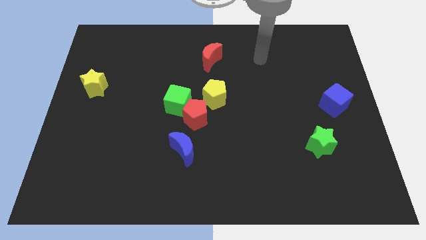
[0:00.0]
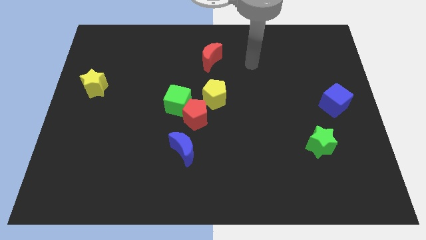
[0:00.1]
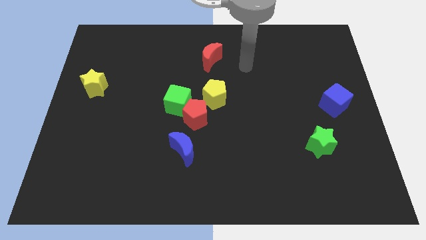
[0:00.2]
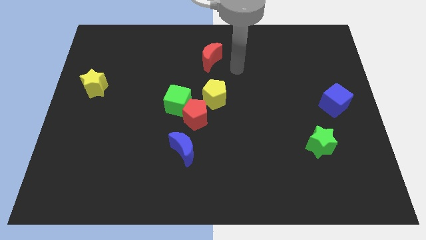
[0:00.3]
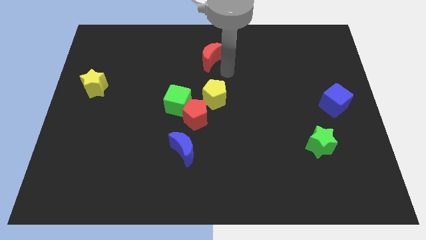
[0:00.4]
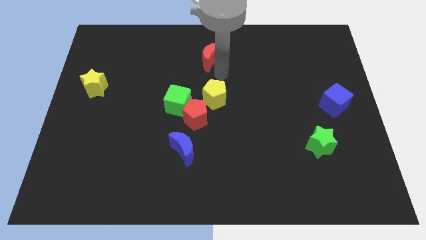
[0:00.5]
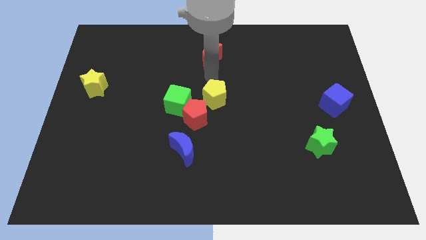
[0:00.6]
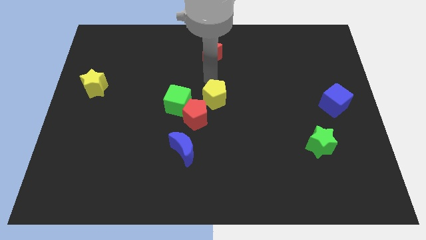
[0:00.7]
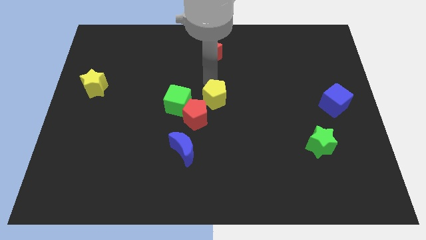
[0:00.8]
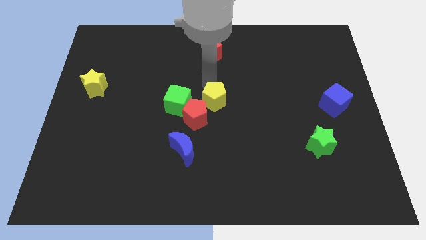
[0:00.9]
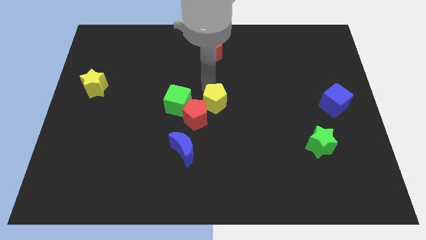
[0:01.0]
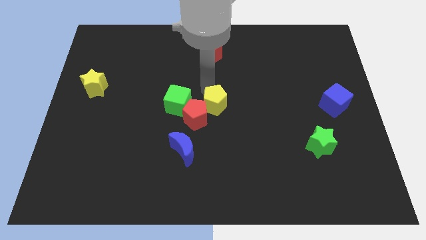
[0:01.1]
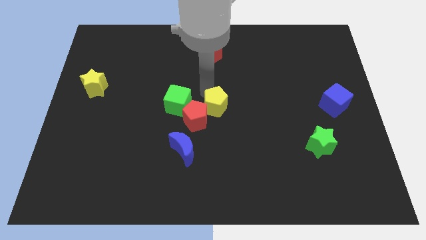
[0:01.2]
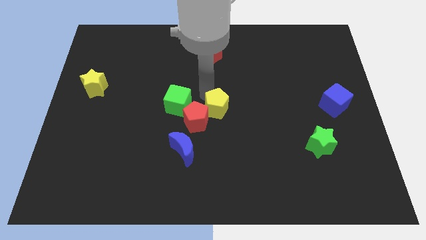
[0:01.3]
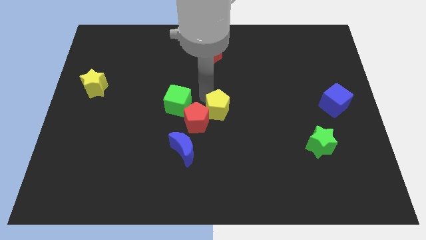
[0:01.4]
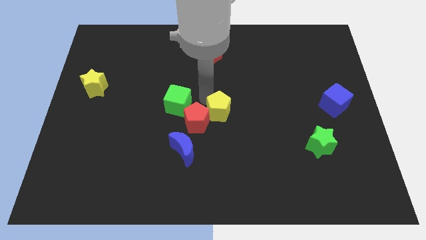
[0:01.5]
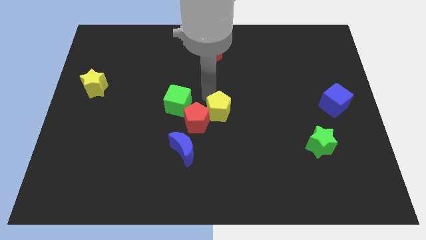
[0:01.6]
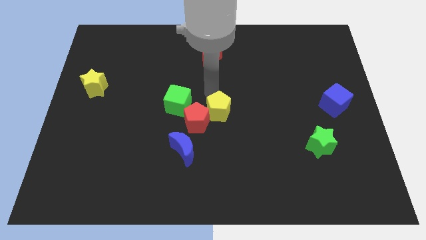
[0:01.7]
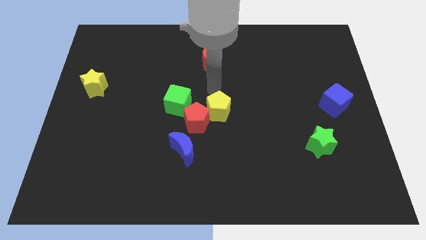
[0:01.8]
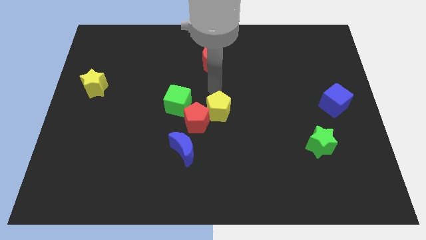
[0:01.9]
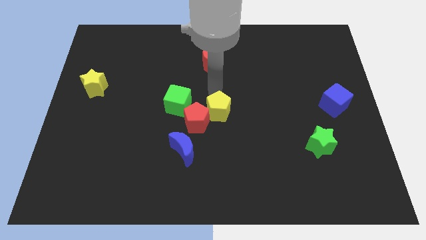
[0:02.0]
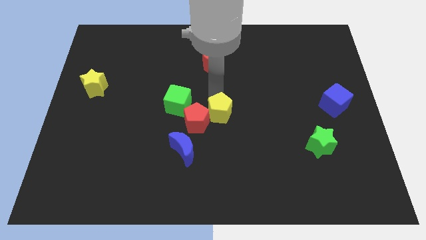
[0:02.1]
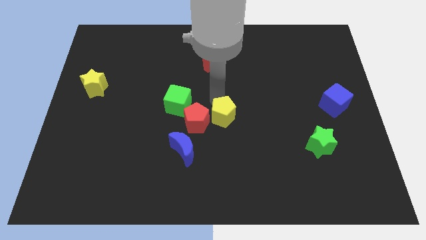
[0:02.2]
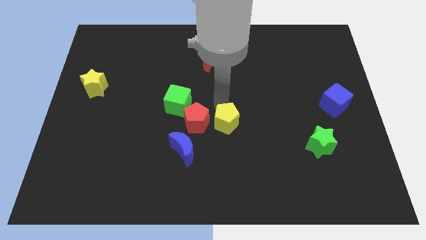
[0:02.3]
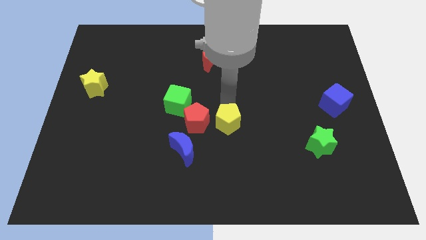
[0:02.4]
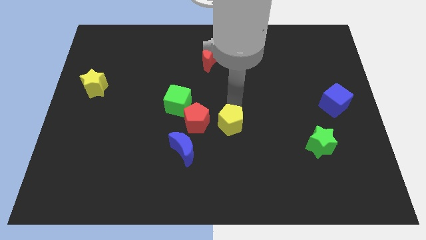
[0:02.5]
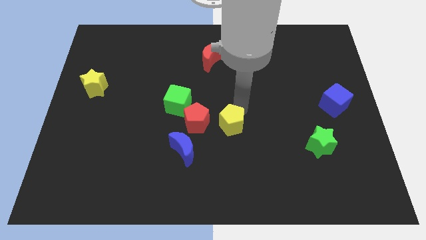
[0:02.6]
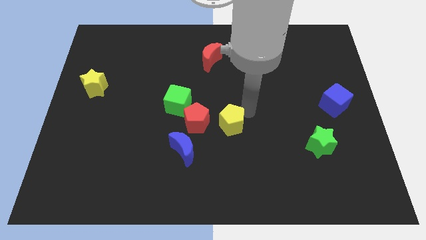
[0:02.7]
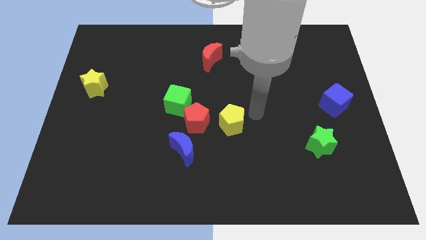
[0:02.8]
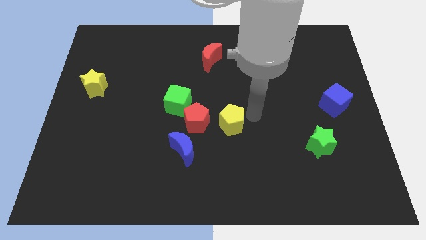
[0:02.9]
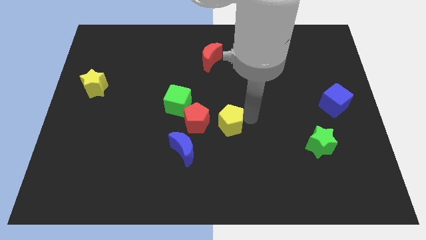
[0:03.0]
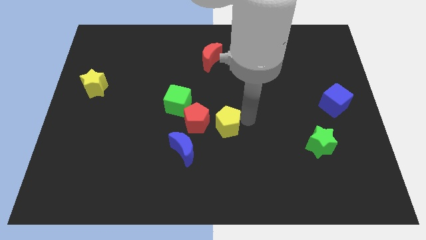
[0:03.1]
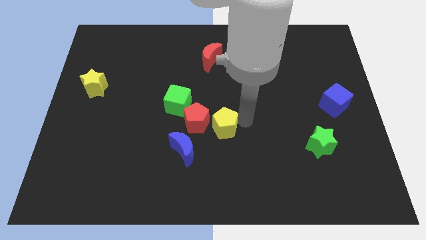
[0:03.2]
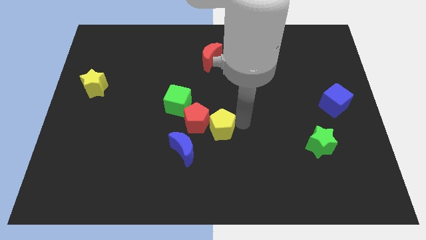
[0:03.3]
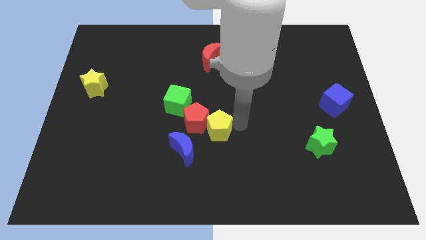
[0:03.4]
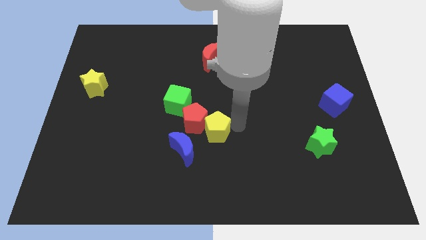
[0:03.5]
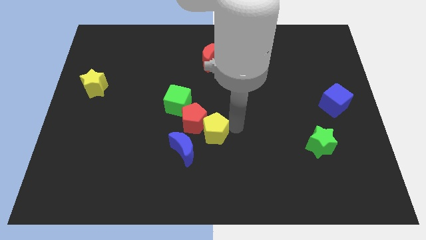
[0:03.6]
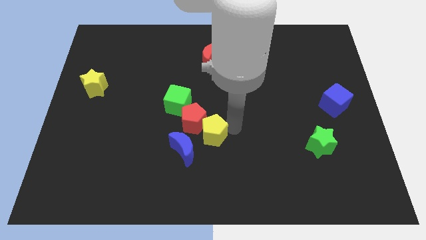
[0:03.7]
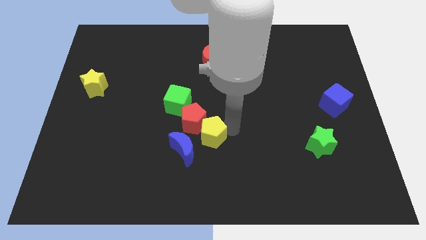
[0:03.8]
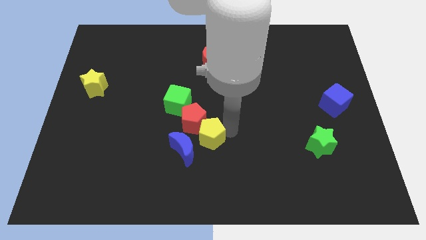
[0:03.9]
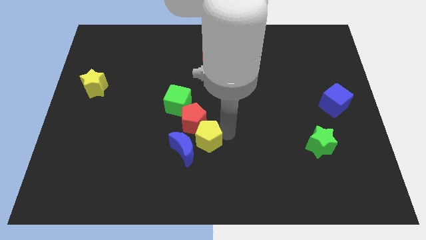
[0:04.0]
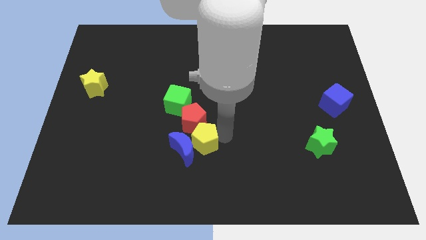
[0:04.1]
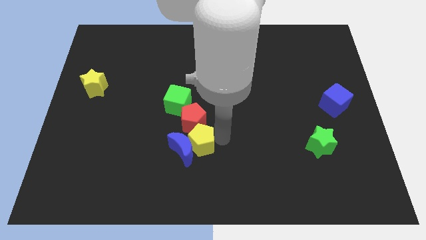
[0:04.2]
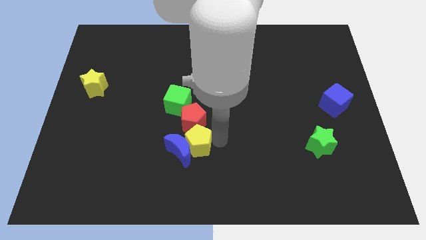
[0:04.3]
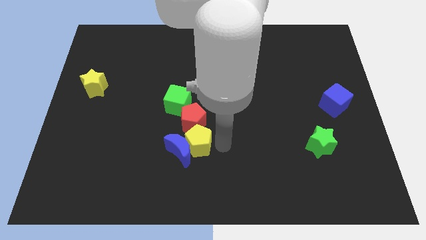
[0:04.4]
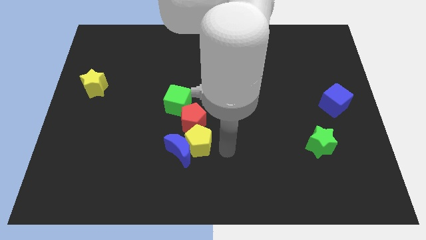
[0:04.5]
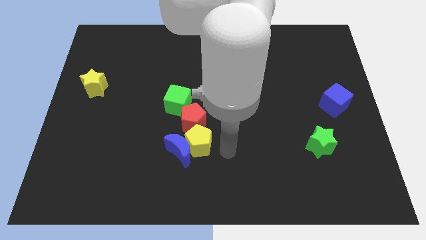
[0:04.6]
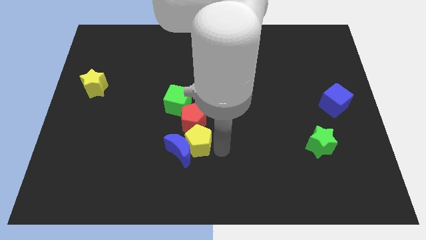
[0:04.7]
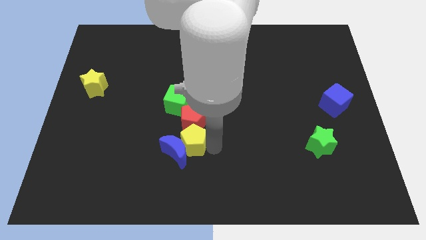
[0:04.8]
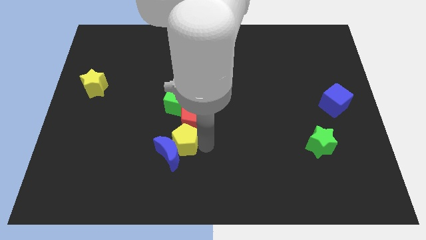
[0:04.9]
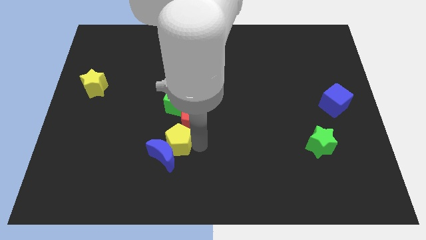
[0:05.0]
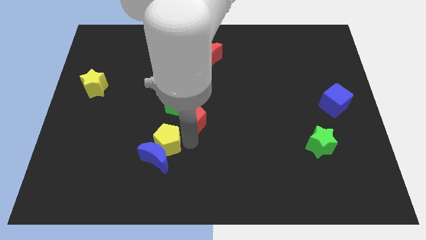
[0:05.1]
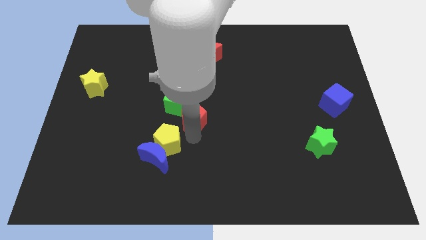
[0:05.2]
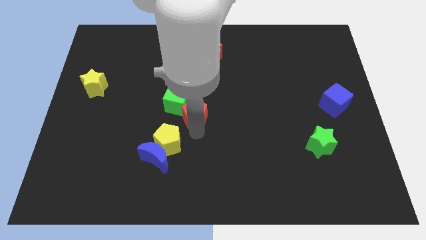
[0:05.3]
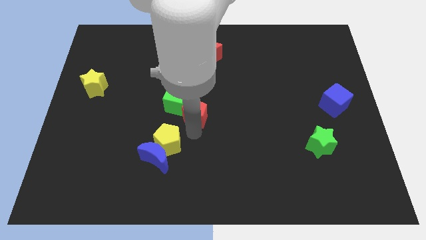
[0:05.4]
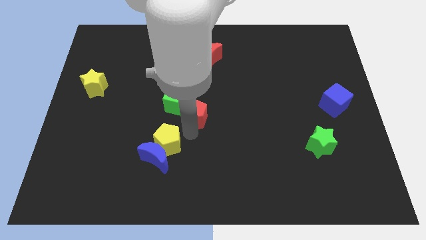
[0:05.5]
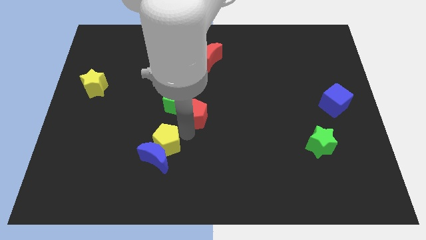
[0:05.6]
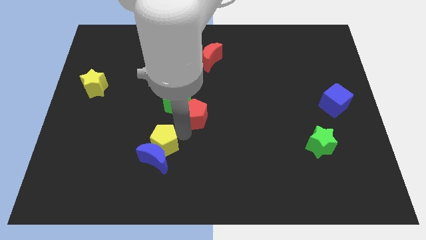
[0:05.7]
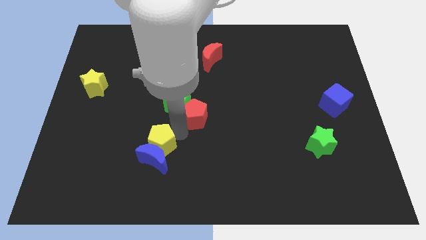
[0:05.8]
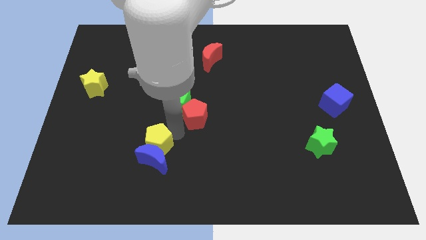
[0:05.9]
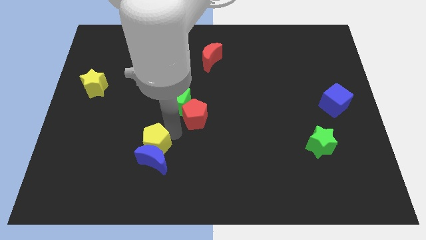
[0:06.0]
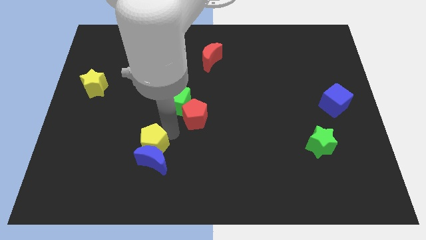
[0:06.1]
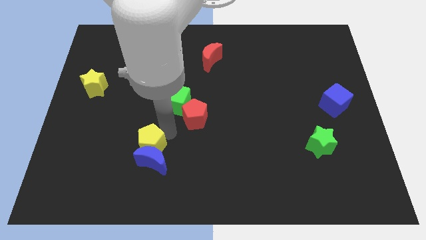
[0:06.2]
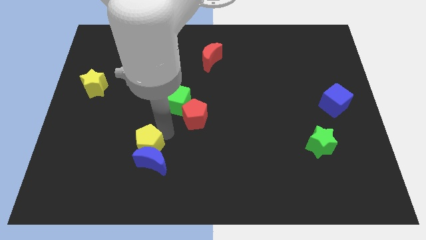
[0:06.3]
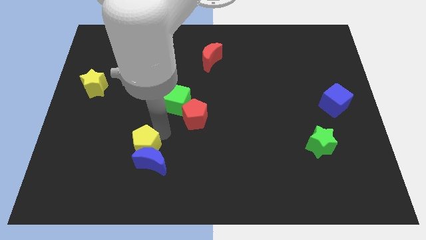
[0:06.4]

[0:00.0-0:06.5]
push the yellow pentagon down and then to the left

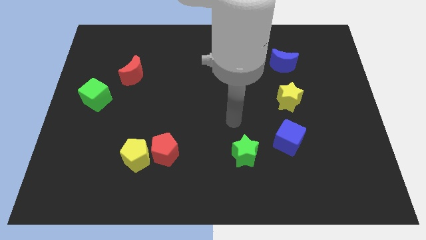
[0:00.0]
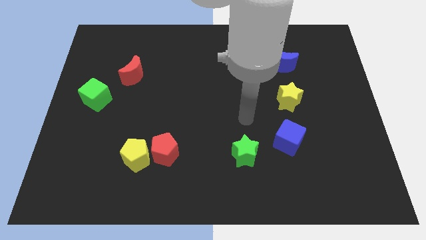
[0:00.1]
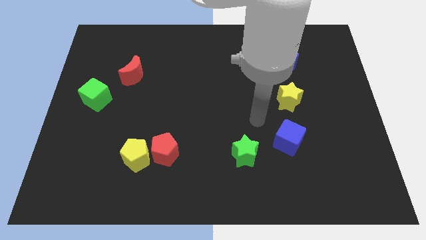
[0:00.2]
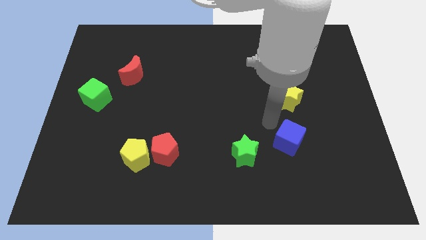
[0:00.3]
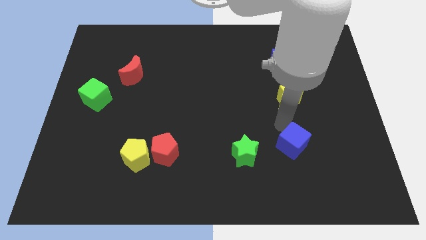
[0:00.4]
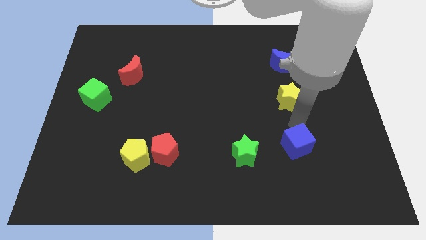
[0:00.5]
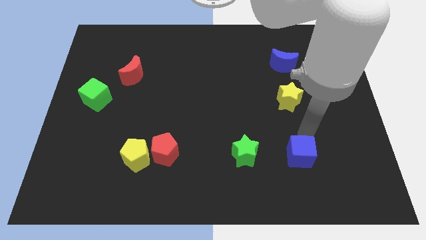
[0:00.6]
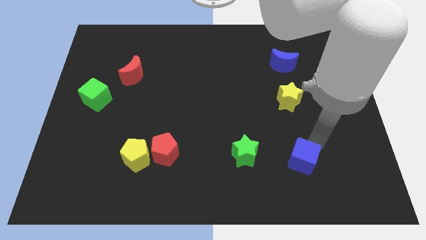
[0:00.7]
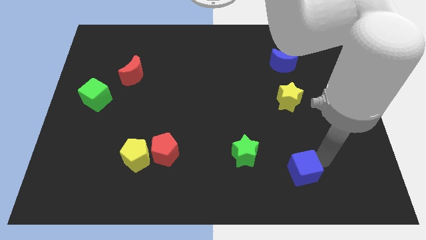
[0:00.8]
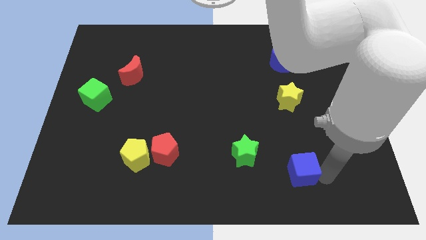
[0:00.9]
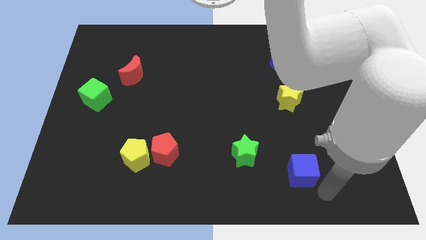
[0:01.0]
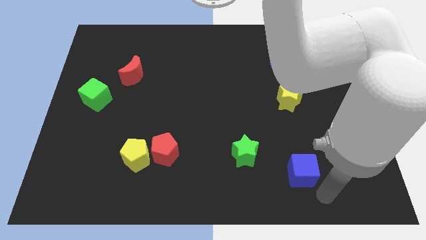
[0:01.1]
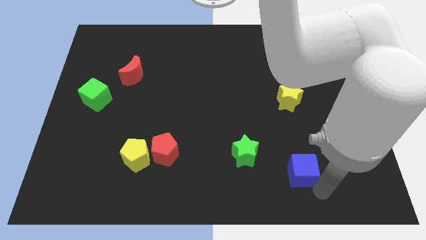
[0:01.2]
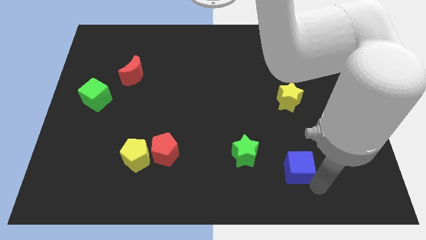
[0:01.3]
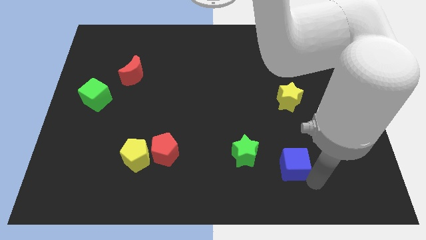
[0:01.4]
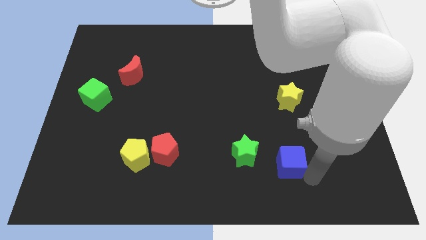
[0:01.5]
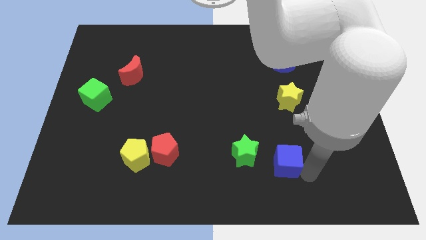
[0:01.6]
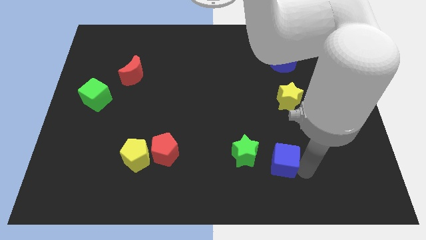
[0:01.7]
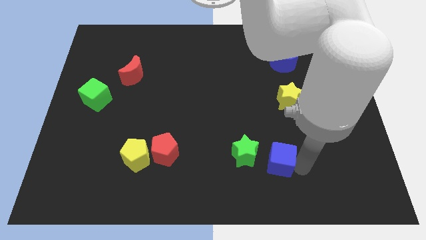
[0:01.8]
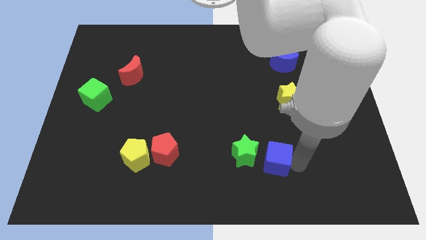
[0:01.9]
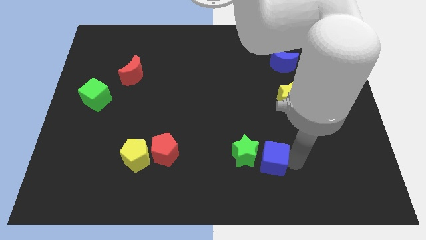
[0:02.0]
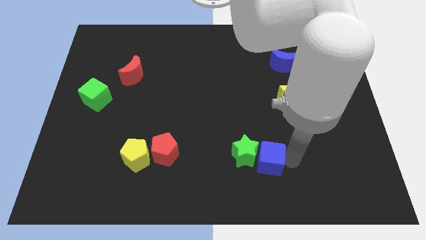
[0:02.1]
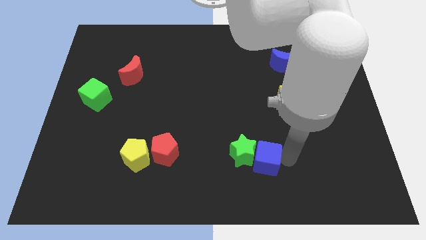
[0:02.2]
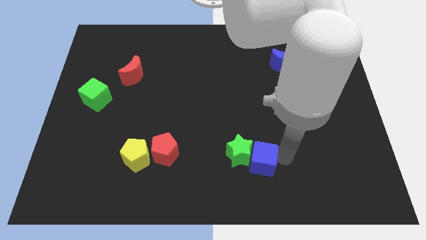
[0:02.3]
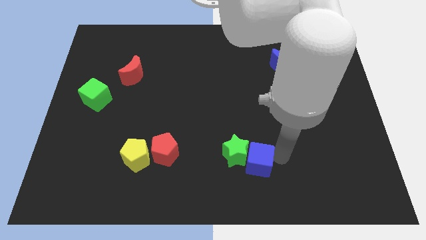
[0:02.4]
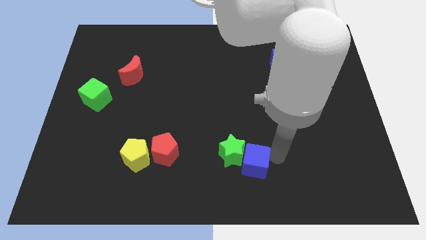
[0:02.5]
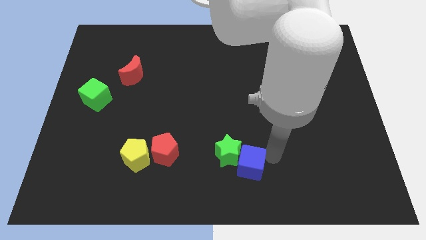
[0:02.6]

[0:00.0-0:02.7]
move the blue cube left slightly
